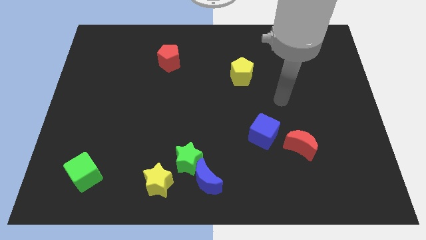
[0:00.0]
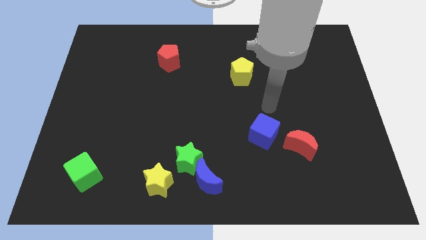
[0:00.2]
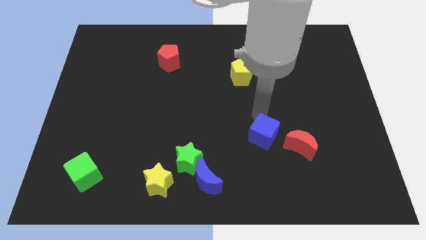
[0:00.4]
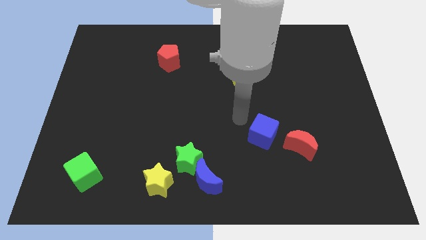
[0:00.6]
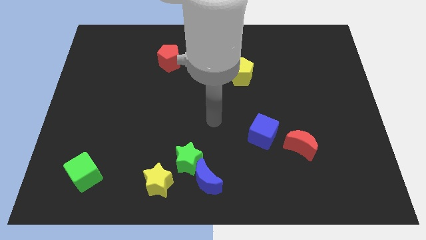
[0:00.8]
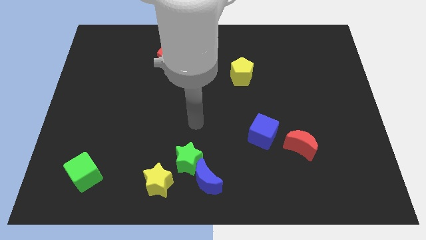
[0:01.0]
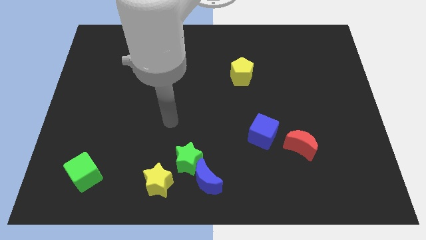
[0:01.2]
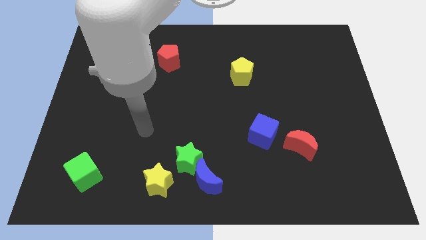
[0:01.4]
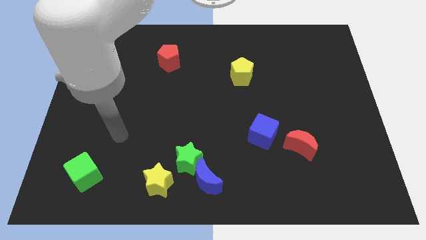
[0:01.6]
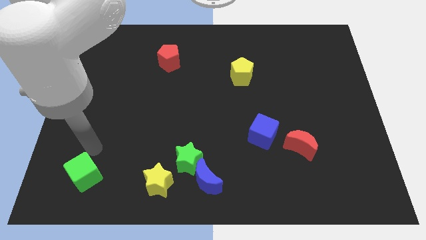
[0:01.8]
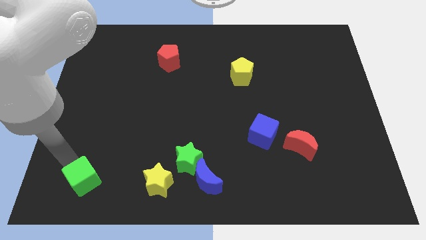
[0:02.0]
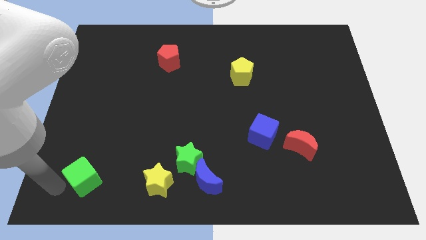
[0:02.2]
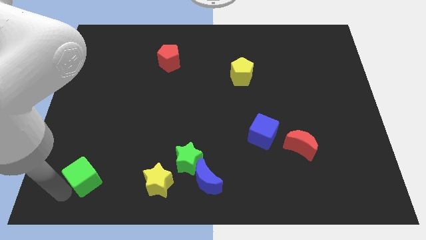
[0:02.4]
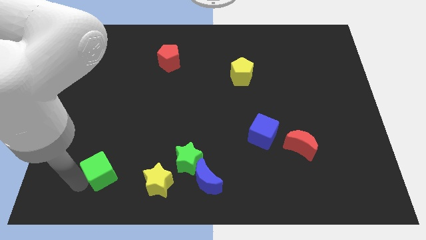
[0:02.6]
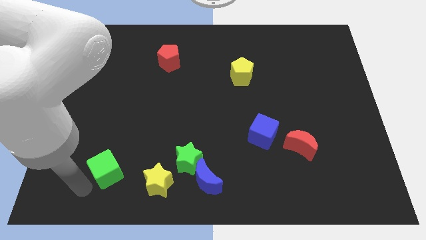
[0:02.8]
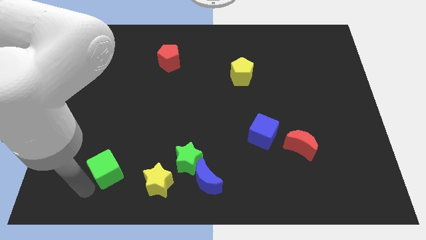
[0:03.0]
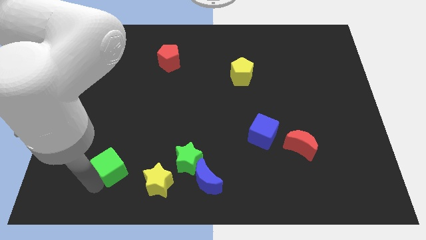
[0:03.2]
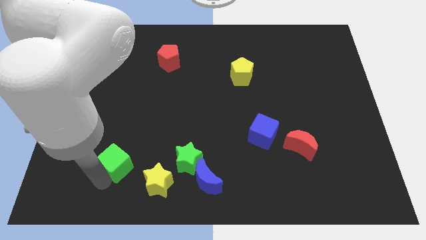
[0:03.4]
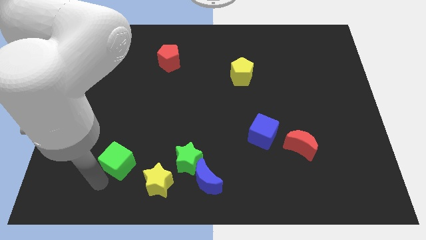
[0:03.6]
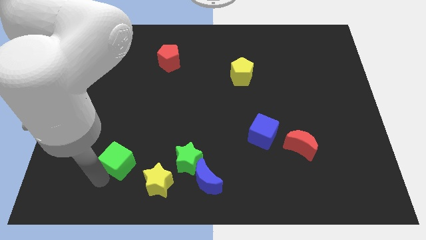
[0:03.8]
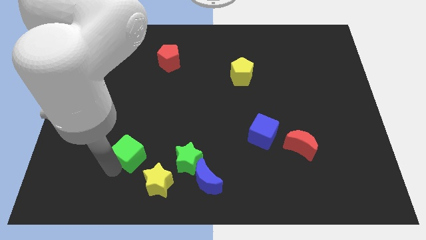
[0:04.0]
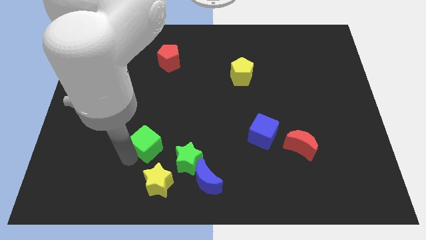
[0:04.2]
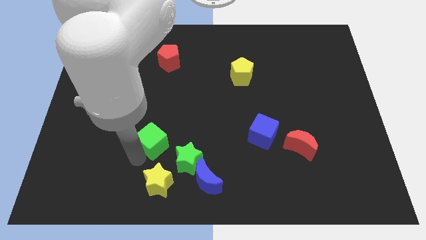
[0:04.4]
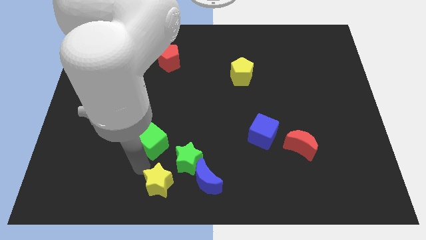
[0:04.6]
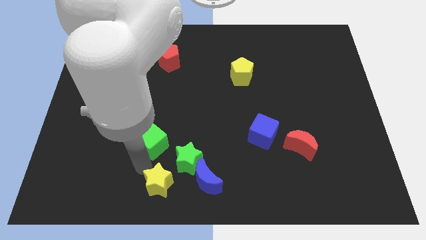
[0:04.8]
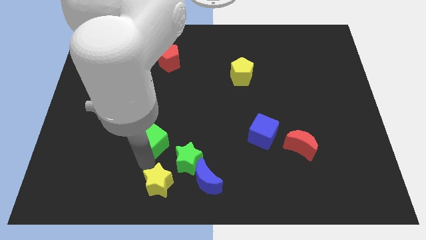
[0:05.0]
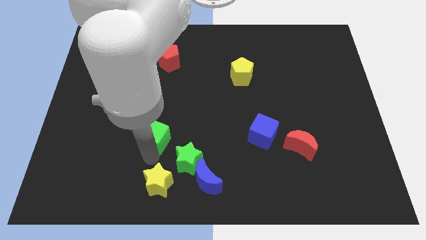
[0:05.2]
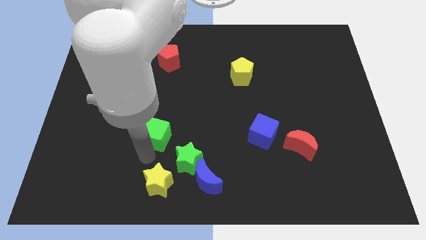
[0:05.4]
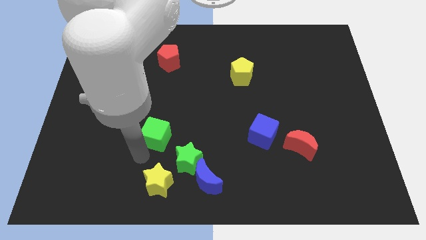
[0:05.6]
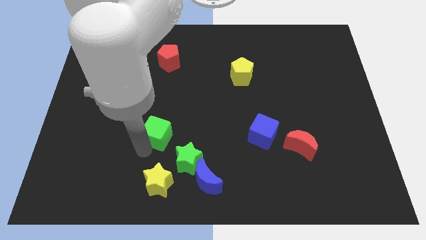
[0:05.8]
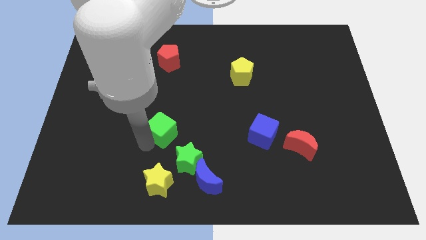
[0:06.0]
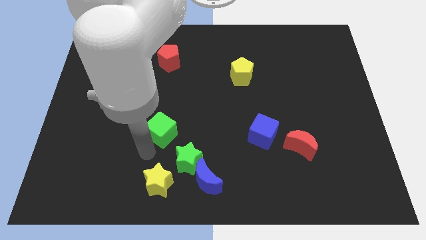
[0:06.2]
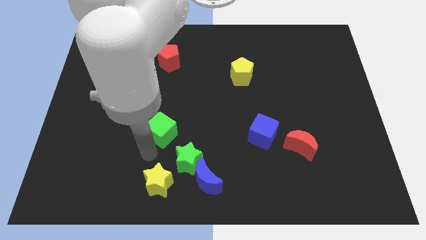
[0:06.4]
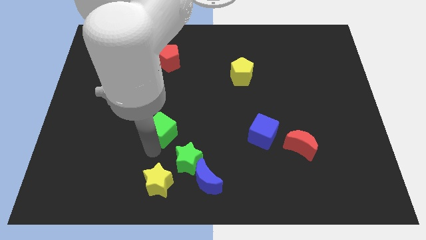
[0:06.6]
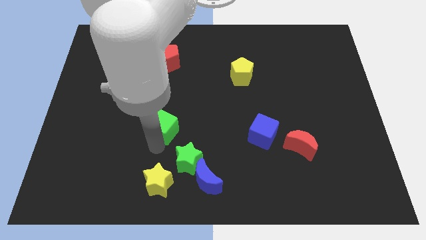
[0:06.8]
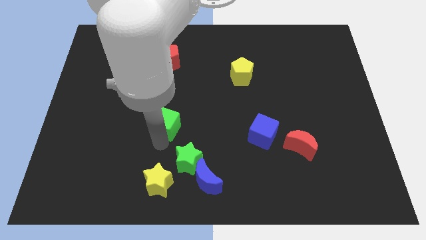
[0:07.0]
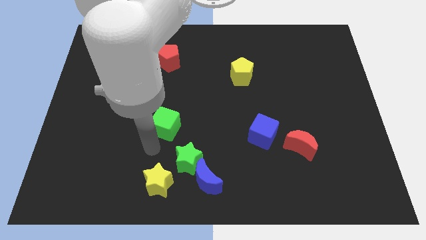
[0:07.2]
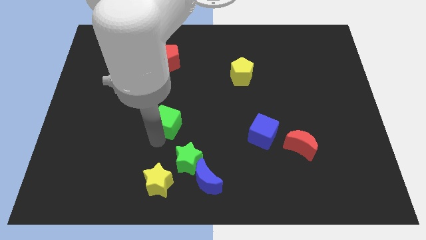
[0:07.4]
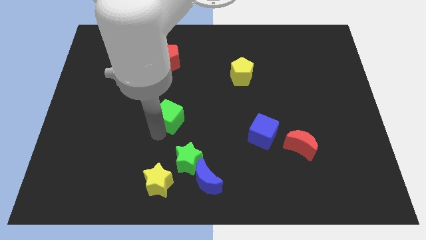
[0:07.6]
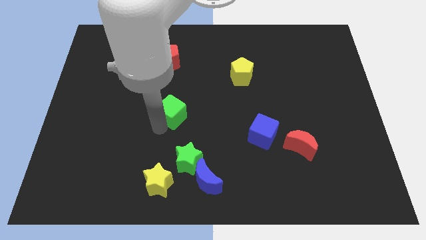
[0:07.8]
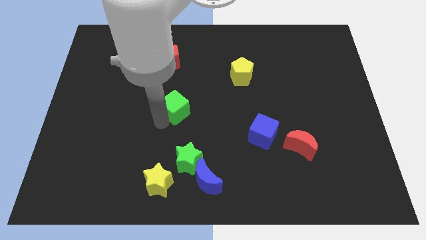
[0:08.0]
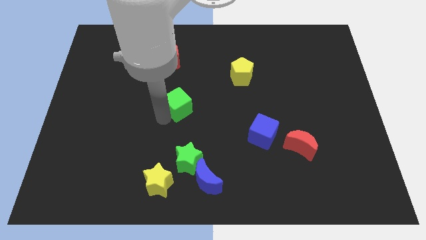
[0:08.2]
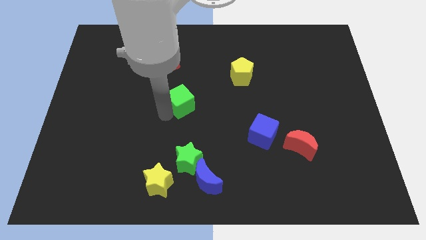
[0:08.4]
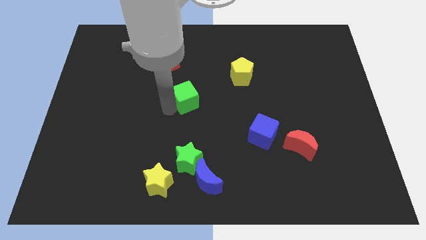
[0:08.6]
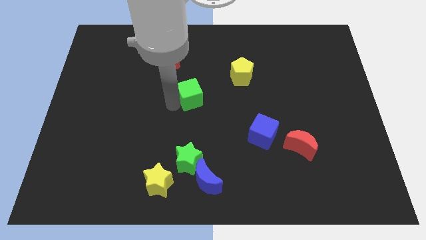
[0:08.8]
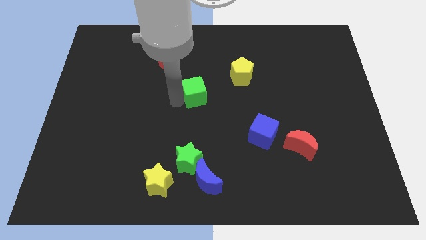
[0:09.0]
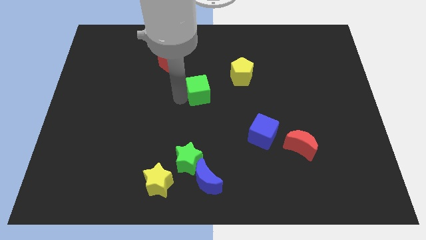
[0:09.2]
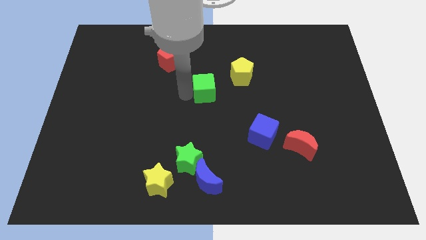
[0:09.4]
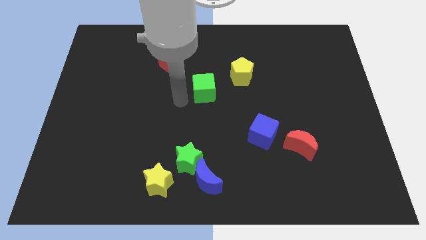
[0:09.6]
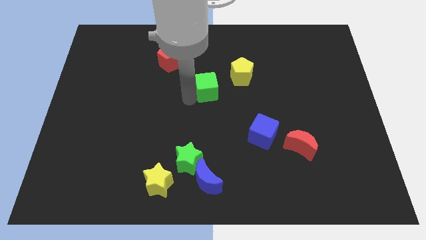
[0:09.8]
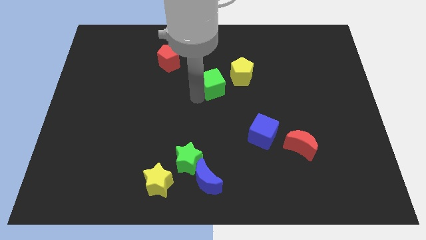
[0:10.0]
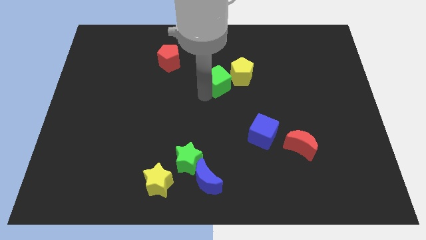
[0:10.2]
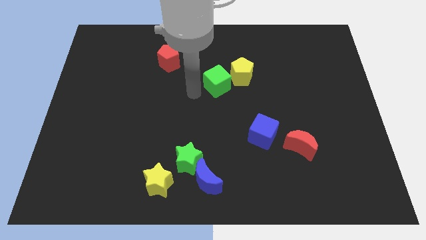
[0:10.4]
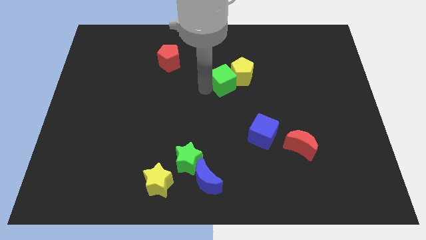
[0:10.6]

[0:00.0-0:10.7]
push the green cube close to the yellow pentagon

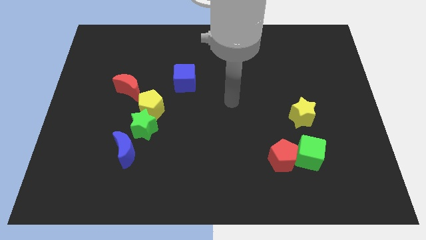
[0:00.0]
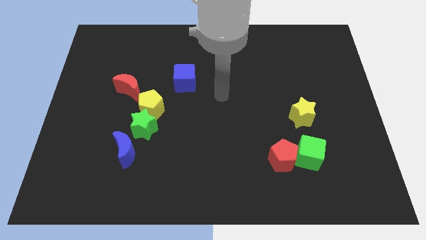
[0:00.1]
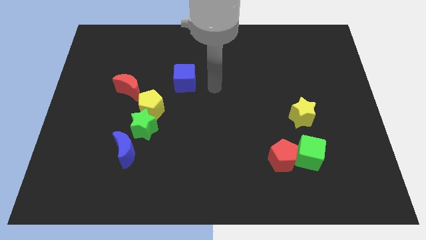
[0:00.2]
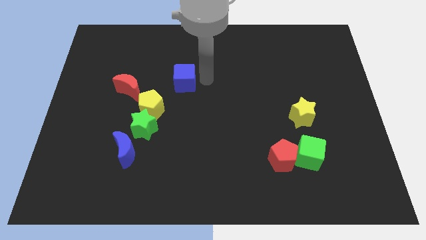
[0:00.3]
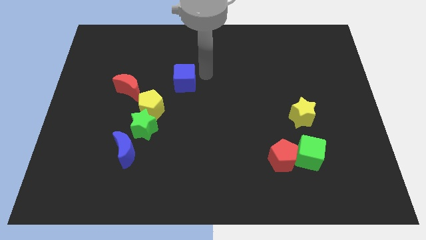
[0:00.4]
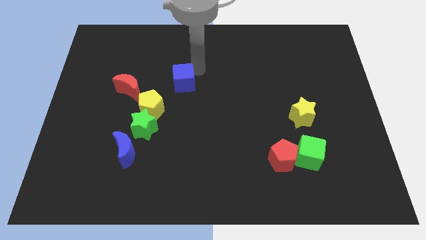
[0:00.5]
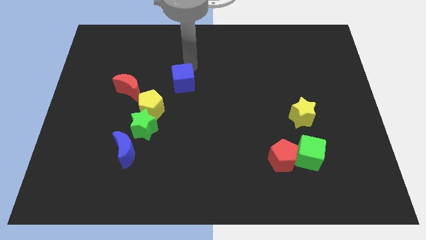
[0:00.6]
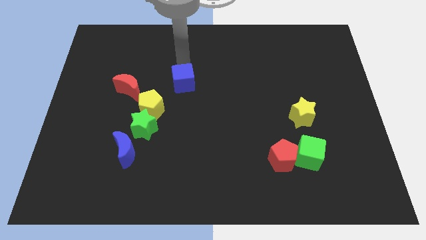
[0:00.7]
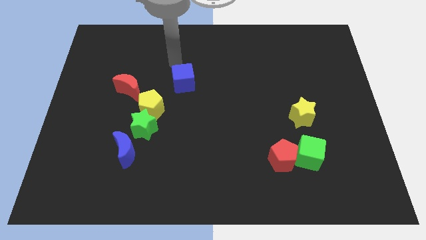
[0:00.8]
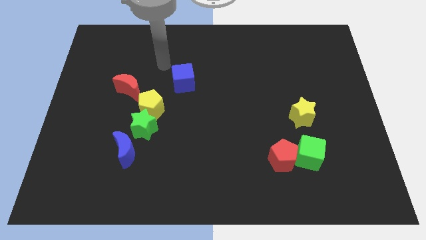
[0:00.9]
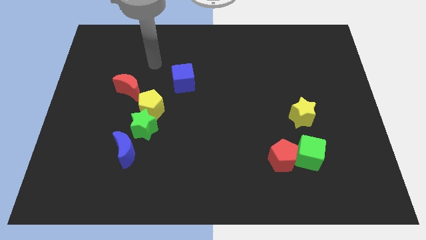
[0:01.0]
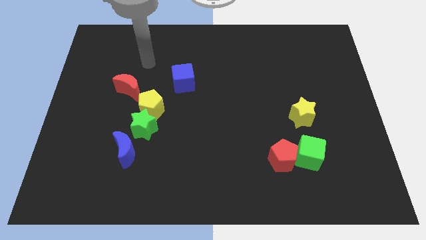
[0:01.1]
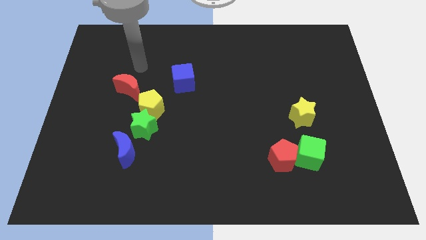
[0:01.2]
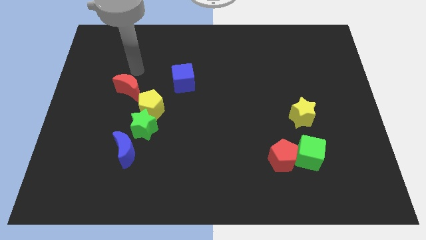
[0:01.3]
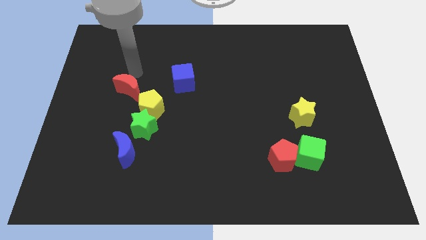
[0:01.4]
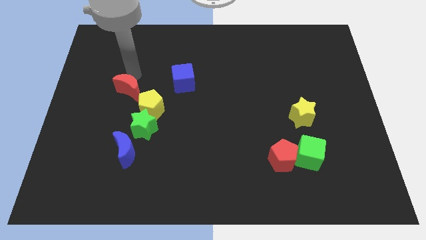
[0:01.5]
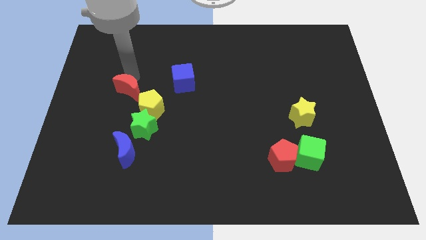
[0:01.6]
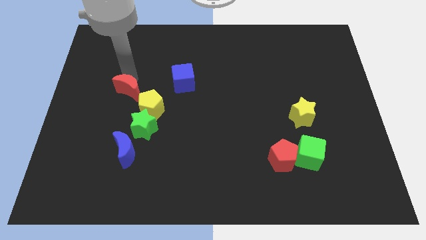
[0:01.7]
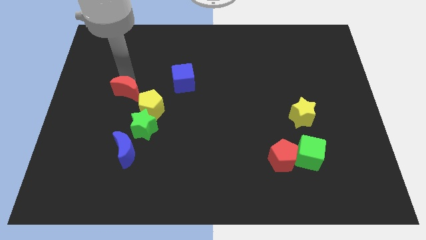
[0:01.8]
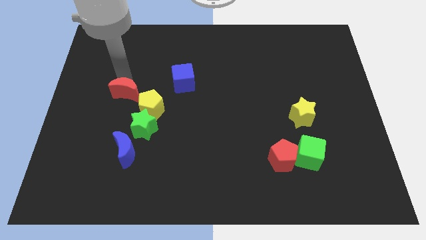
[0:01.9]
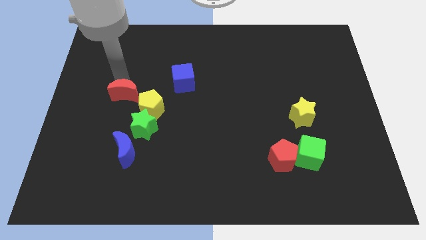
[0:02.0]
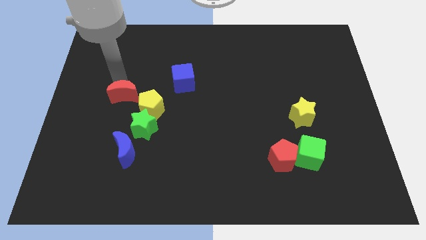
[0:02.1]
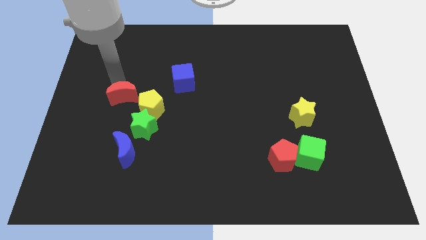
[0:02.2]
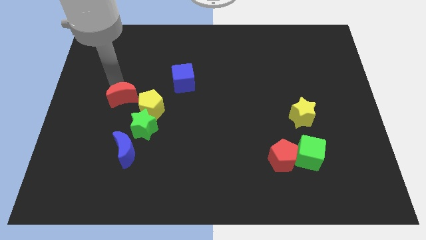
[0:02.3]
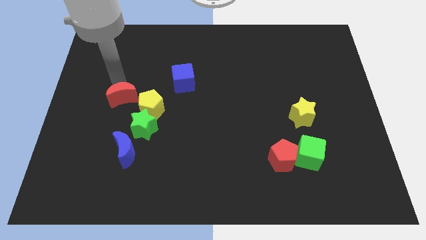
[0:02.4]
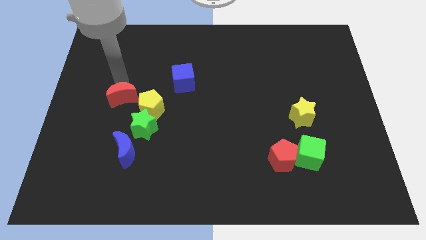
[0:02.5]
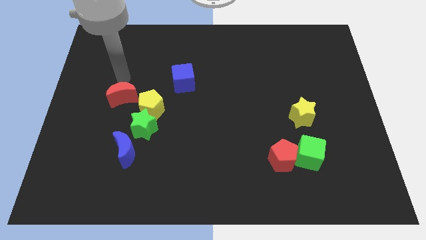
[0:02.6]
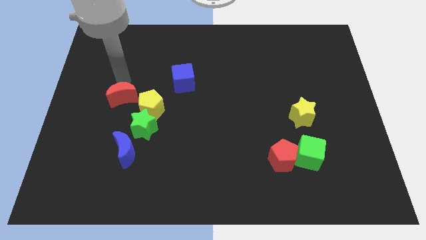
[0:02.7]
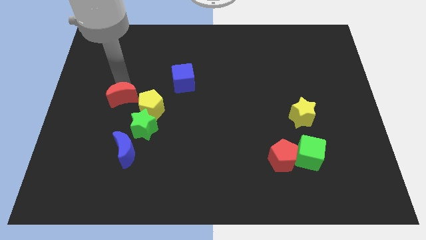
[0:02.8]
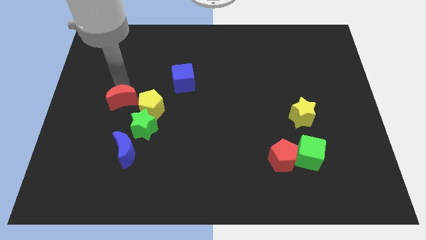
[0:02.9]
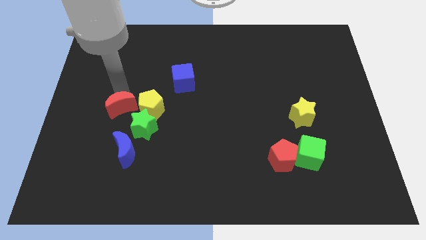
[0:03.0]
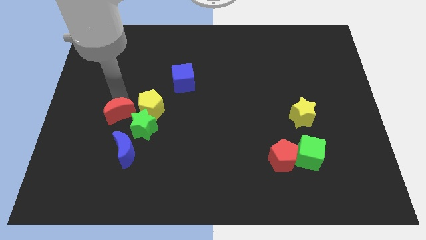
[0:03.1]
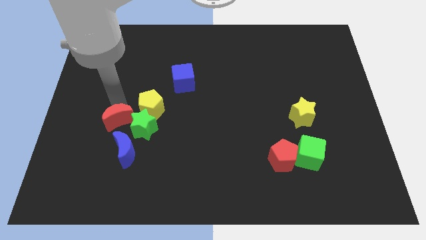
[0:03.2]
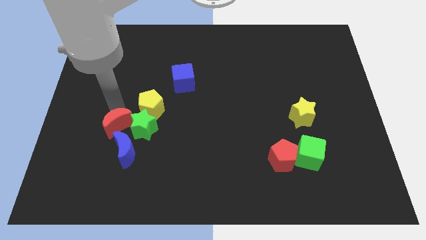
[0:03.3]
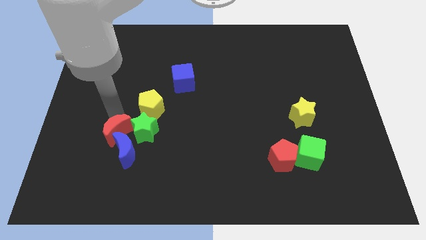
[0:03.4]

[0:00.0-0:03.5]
push the red moon close to the blue moon
